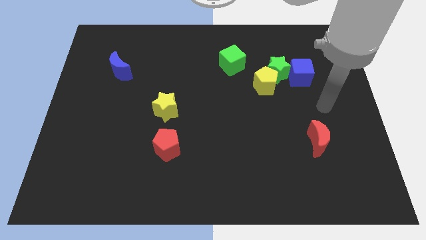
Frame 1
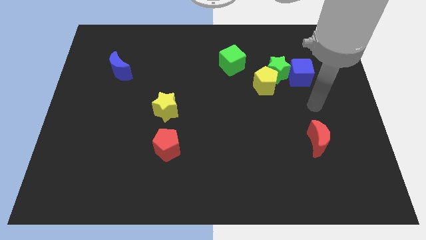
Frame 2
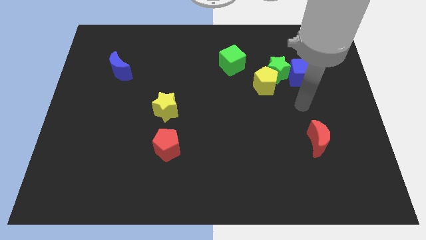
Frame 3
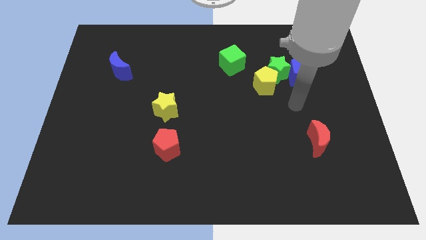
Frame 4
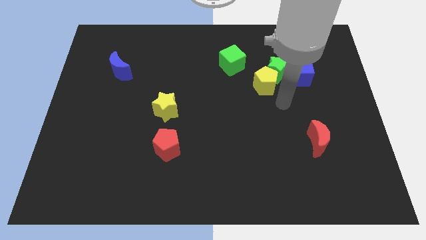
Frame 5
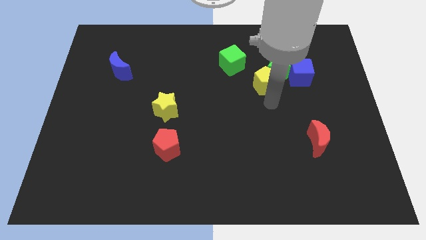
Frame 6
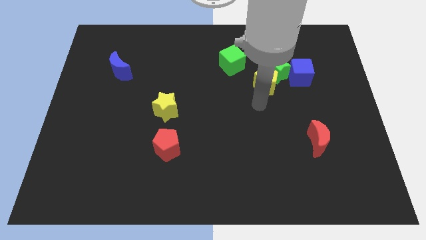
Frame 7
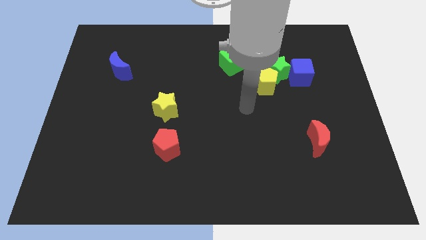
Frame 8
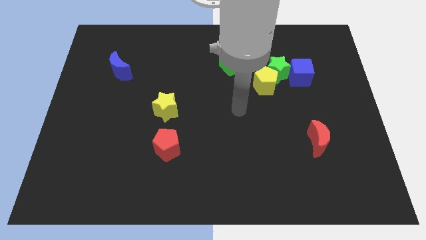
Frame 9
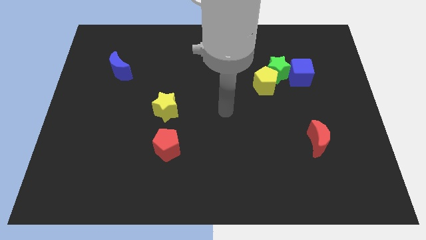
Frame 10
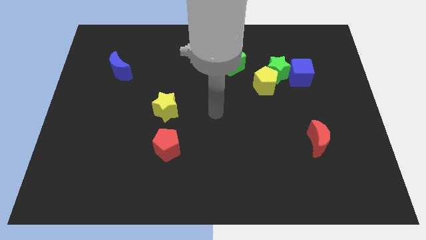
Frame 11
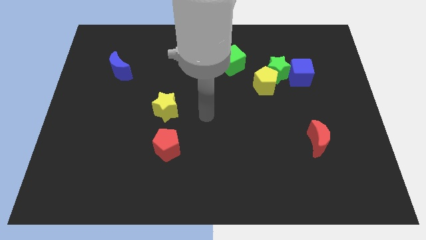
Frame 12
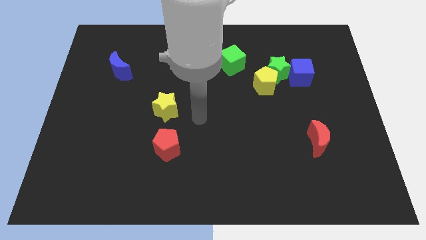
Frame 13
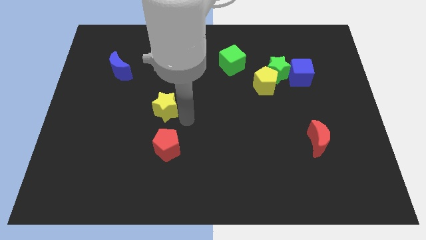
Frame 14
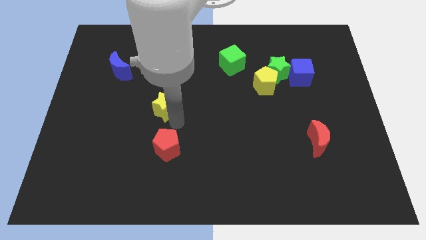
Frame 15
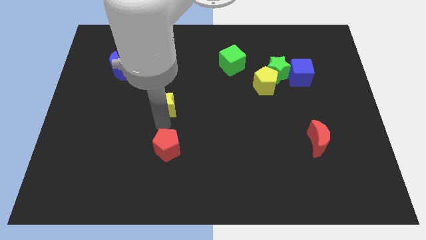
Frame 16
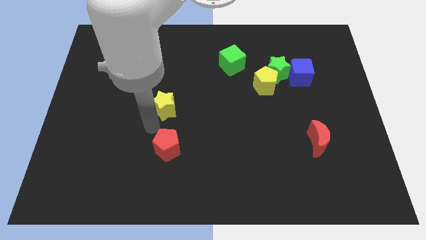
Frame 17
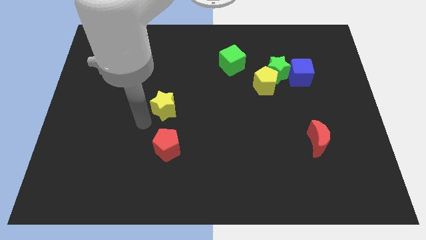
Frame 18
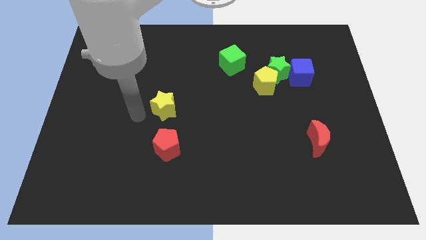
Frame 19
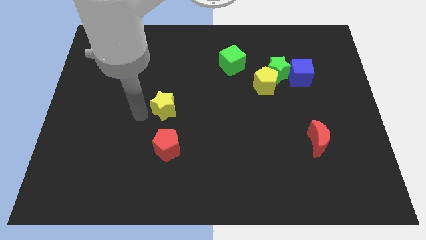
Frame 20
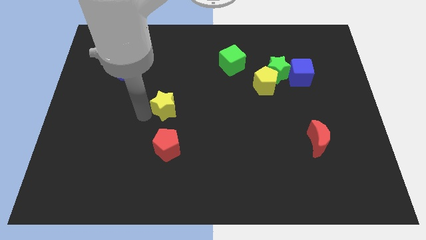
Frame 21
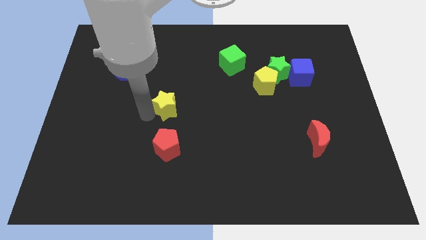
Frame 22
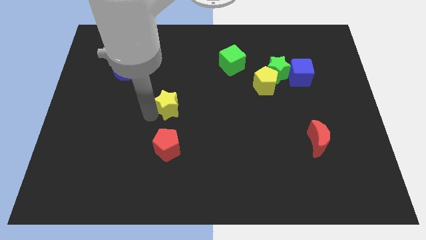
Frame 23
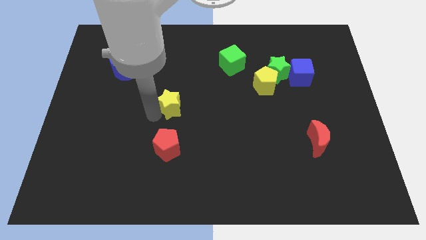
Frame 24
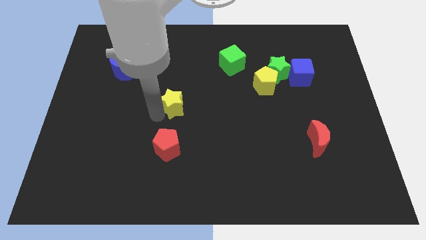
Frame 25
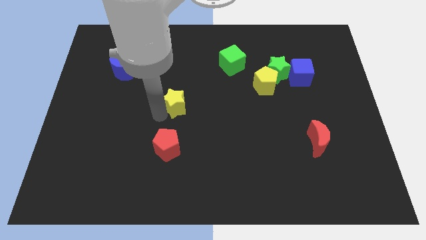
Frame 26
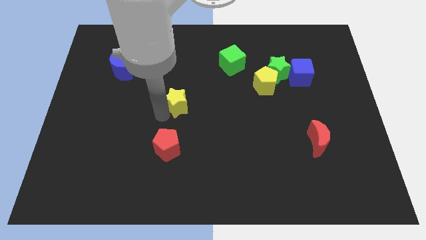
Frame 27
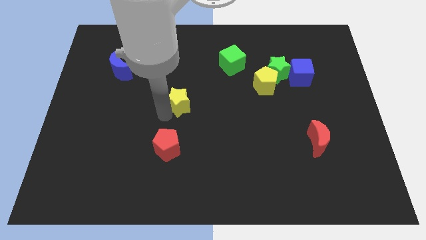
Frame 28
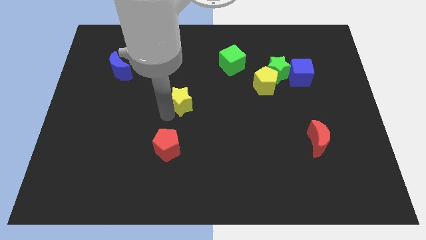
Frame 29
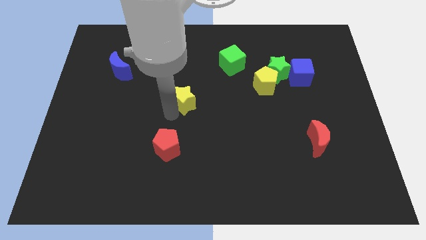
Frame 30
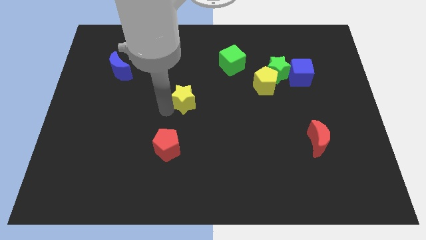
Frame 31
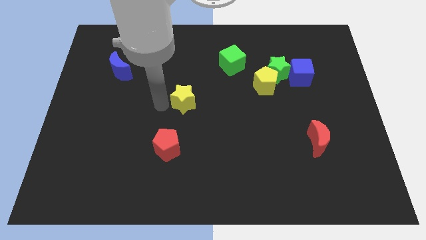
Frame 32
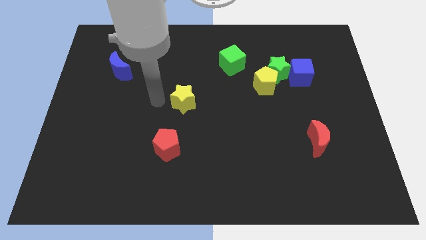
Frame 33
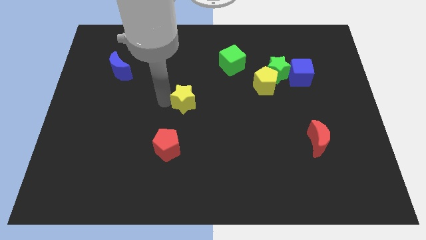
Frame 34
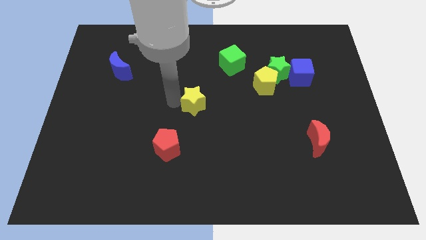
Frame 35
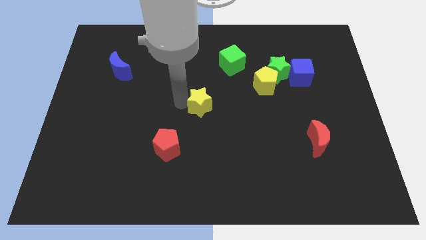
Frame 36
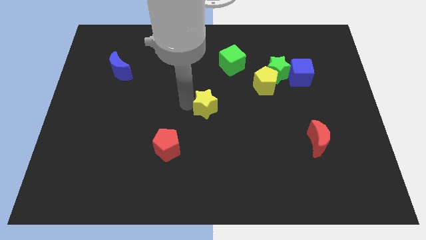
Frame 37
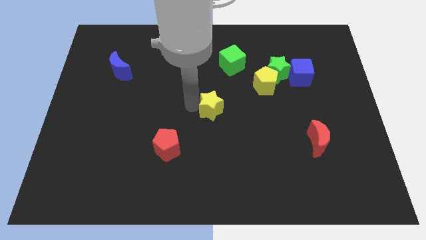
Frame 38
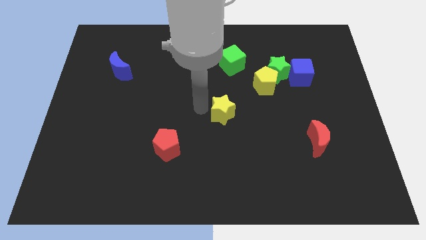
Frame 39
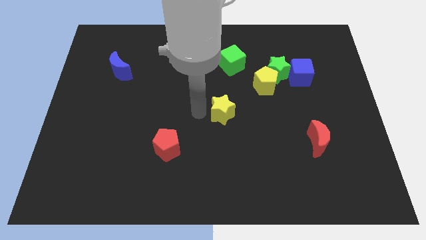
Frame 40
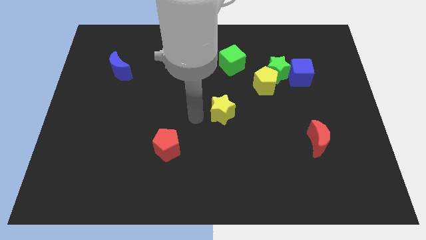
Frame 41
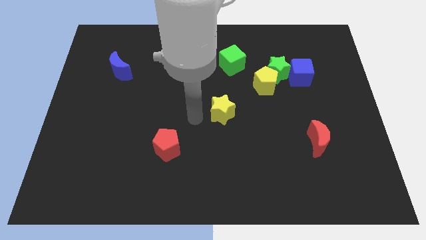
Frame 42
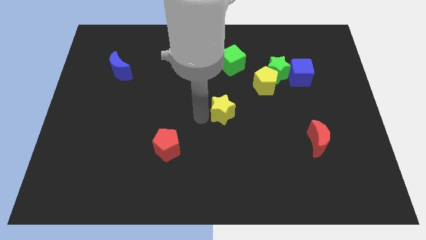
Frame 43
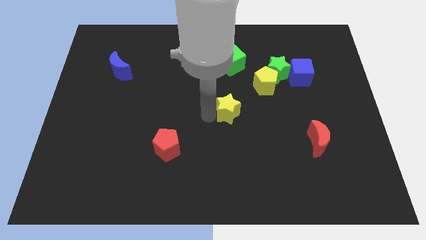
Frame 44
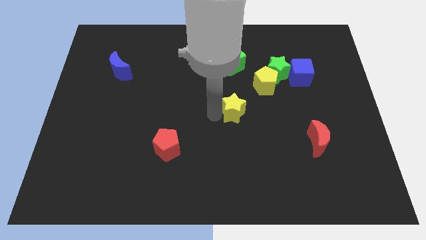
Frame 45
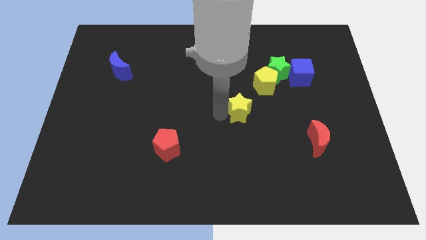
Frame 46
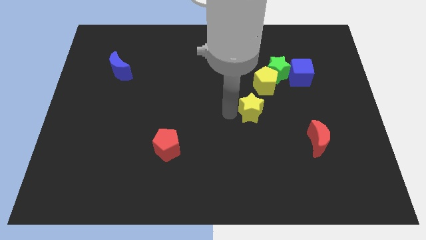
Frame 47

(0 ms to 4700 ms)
push the yellow star right

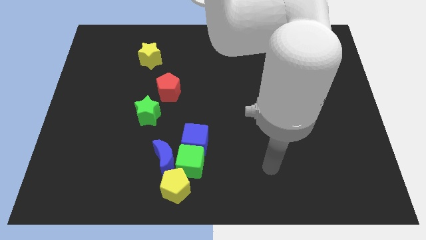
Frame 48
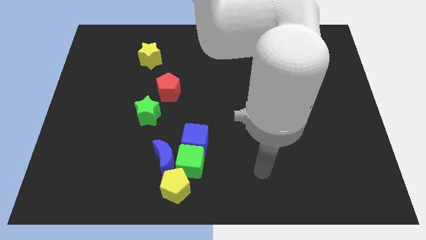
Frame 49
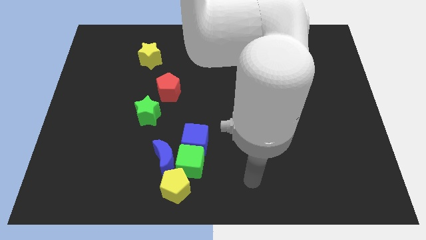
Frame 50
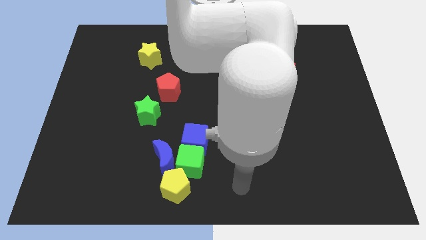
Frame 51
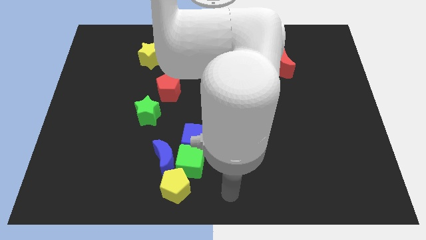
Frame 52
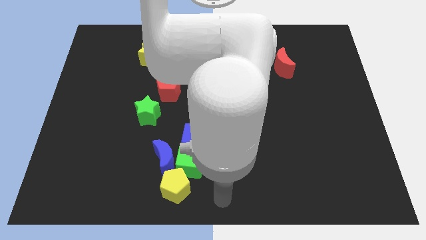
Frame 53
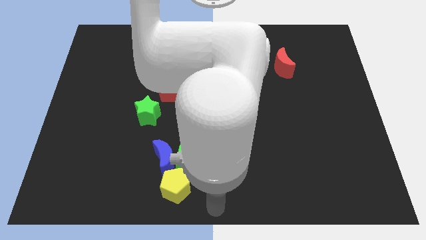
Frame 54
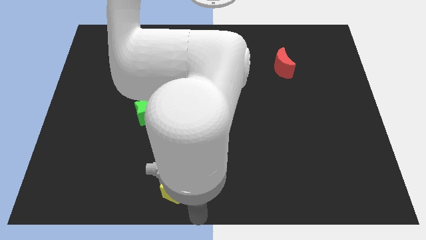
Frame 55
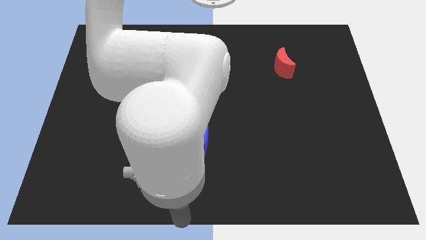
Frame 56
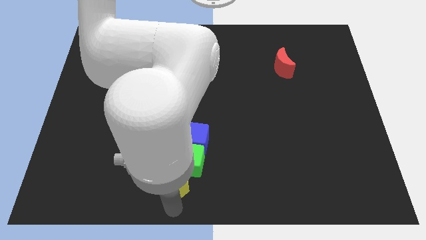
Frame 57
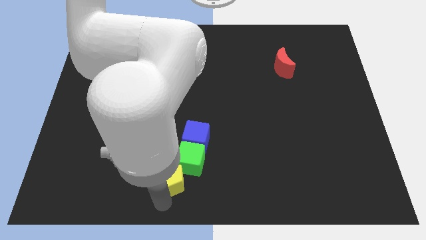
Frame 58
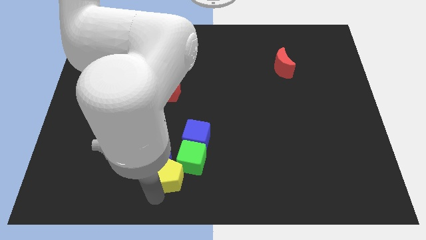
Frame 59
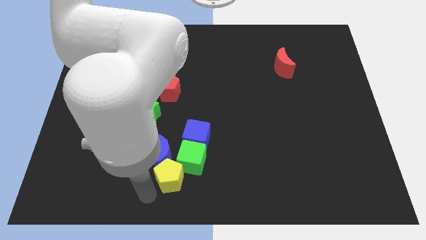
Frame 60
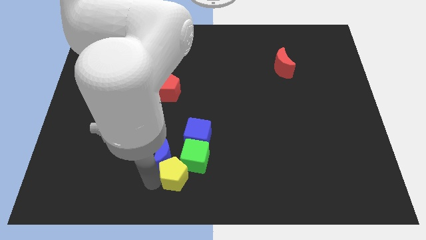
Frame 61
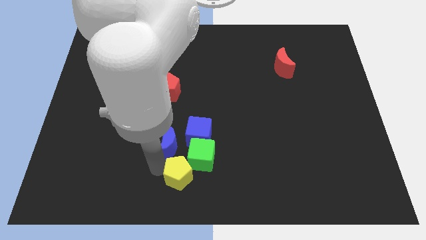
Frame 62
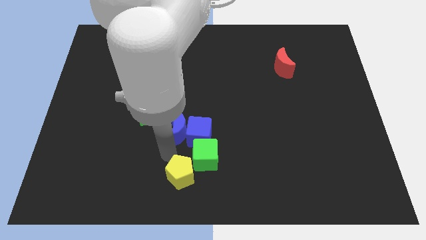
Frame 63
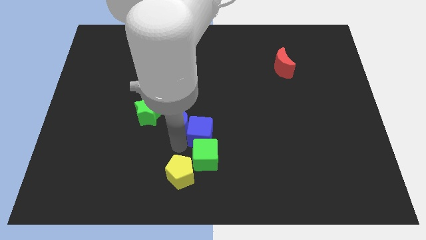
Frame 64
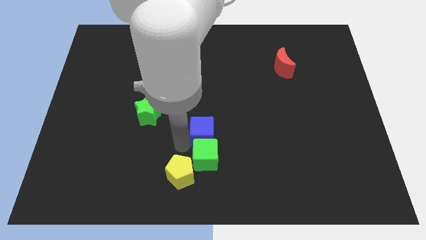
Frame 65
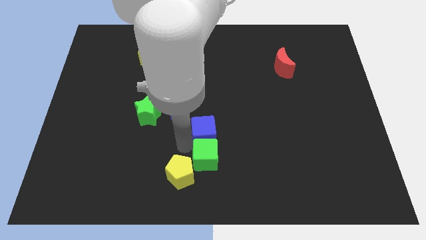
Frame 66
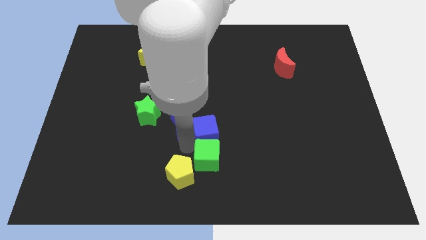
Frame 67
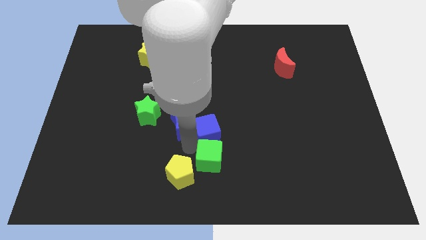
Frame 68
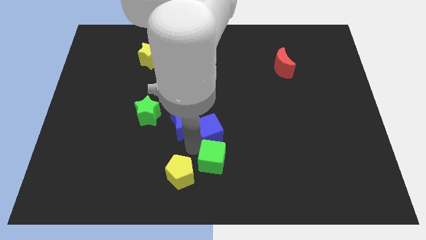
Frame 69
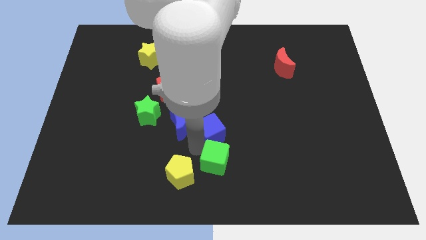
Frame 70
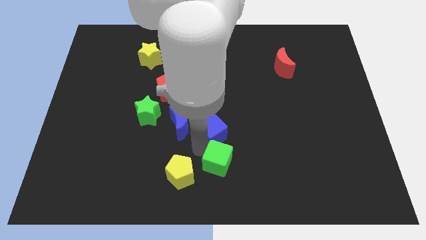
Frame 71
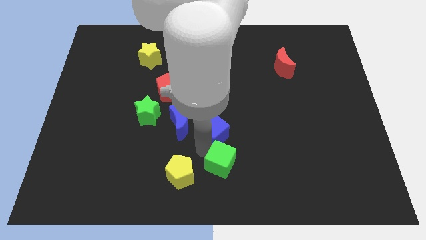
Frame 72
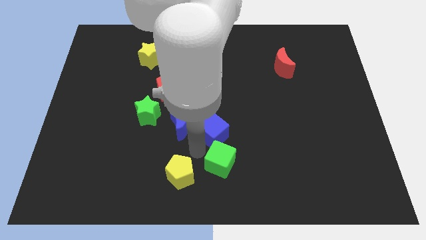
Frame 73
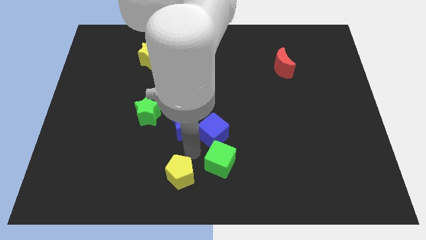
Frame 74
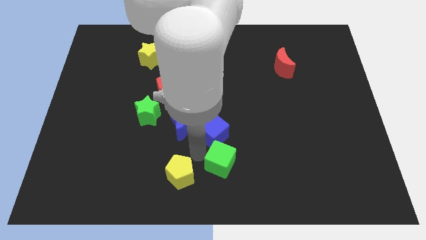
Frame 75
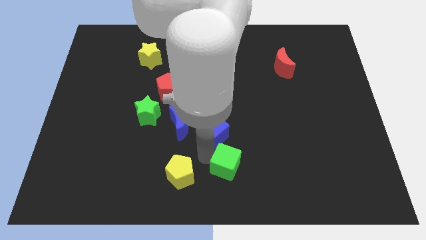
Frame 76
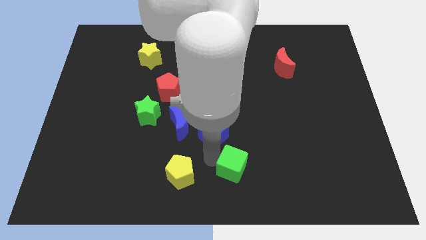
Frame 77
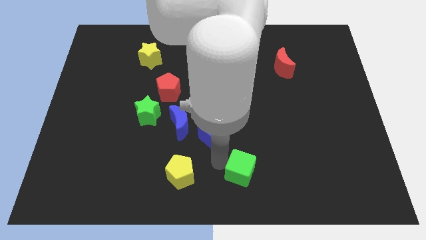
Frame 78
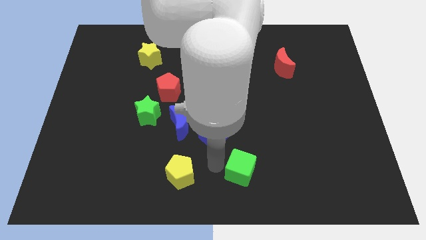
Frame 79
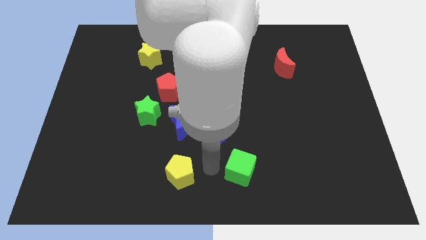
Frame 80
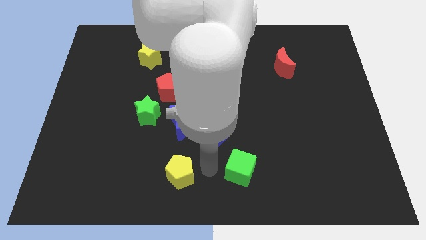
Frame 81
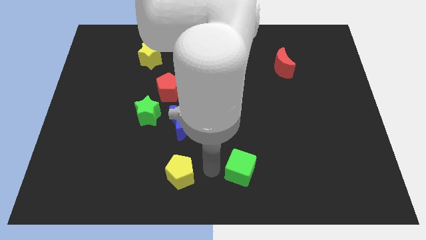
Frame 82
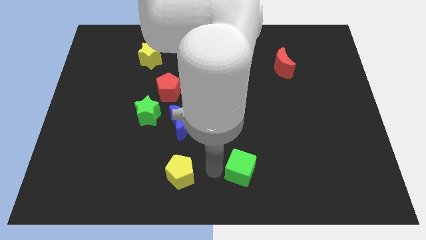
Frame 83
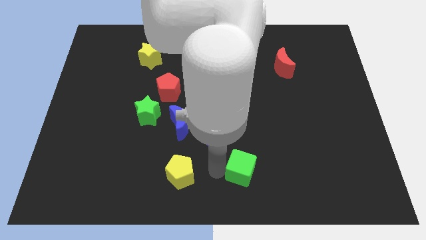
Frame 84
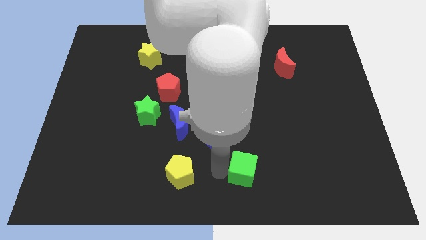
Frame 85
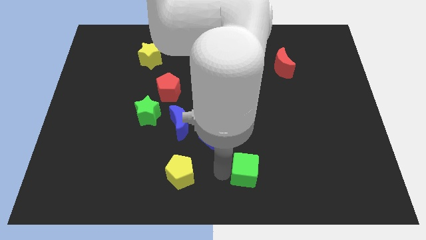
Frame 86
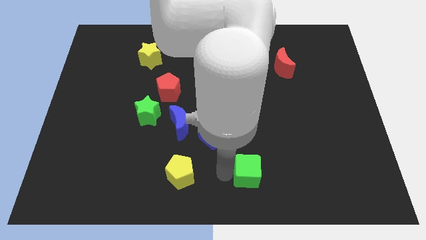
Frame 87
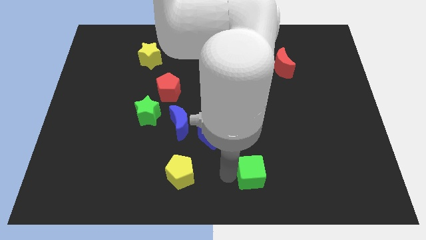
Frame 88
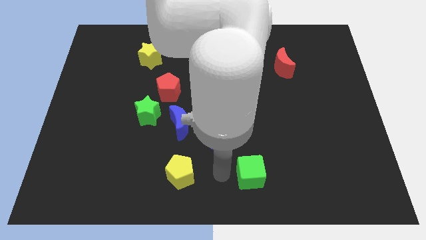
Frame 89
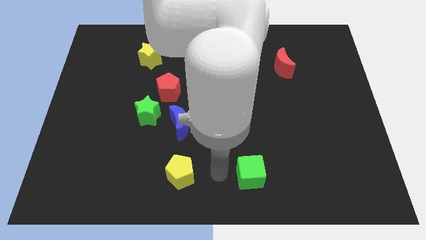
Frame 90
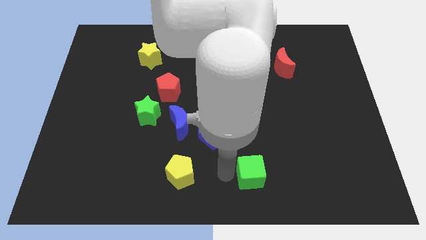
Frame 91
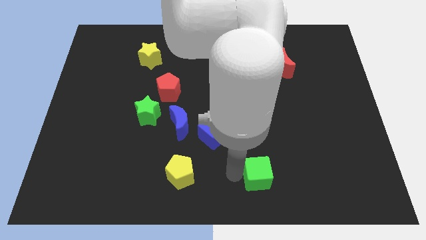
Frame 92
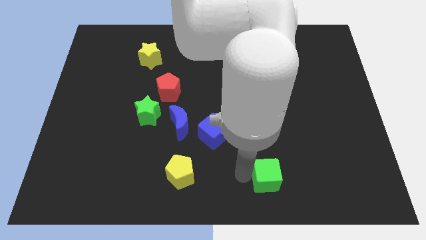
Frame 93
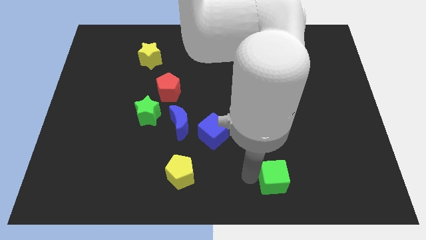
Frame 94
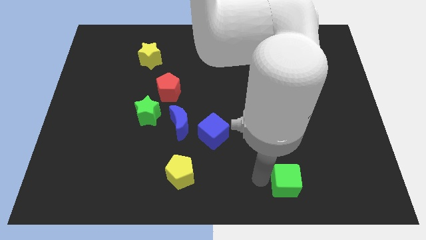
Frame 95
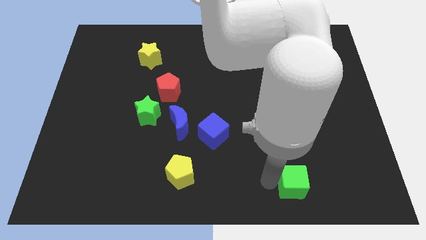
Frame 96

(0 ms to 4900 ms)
push the green cube right
